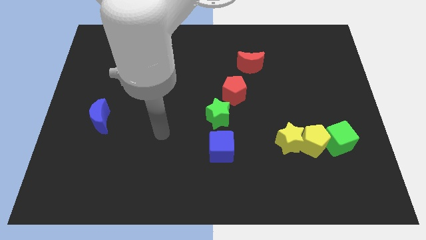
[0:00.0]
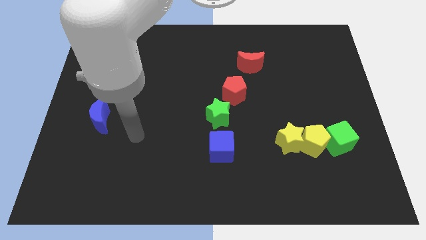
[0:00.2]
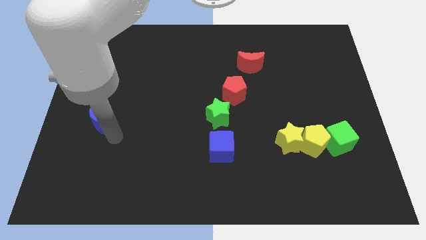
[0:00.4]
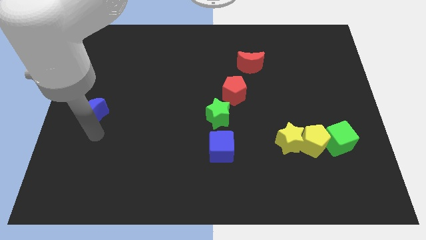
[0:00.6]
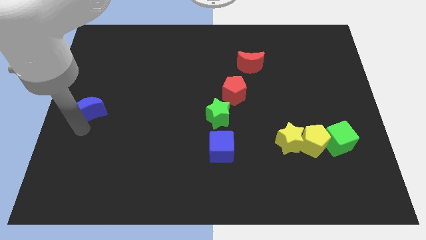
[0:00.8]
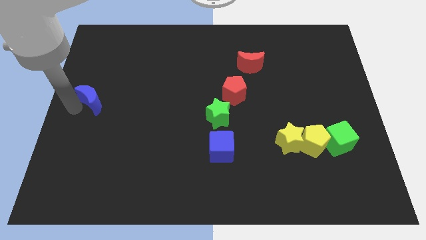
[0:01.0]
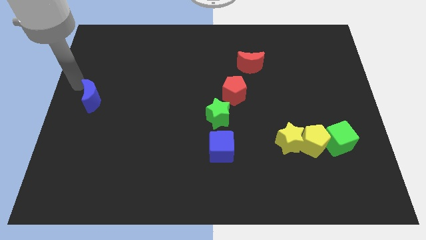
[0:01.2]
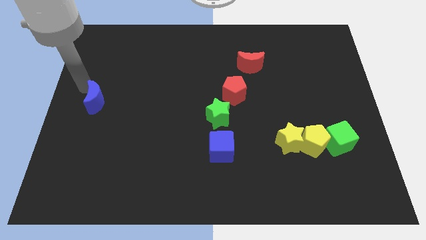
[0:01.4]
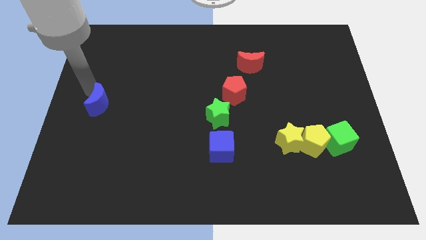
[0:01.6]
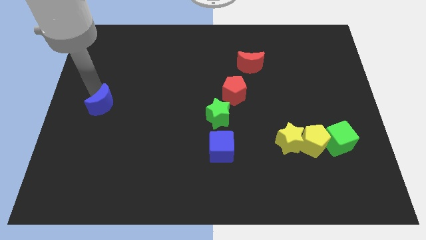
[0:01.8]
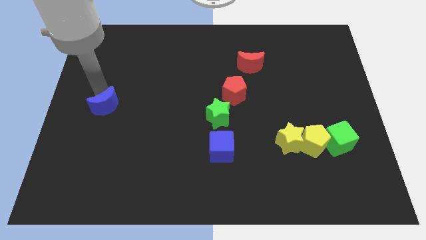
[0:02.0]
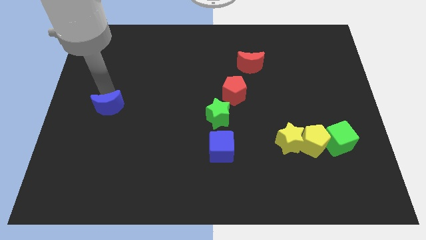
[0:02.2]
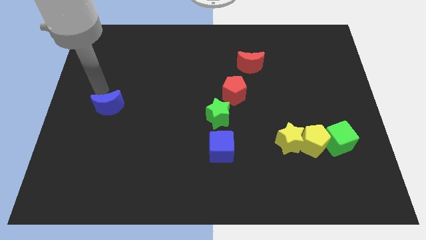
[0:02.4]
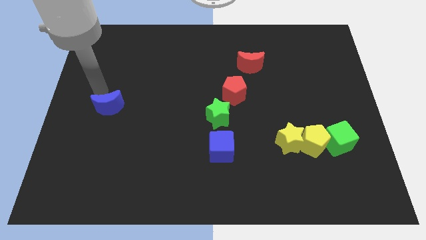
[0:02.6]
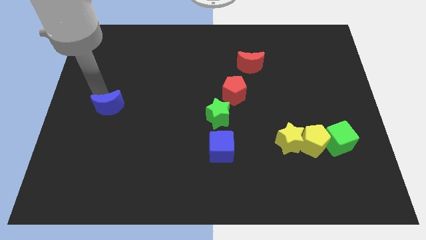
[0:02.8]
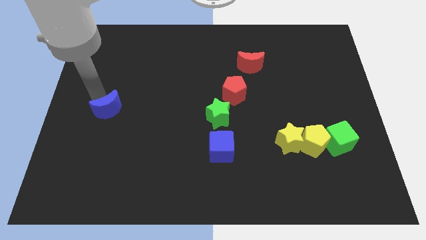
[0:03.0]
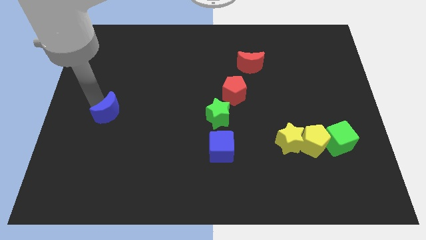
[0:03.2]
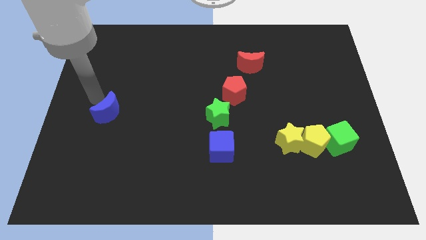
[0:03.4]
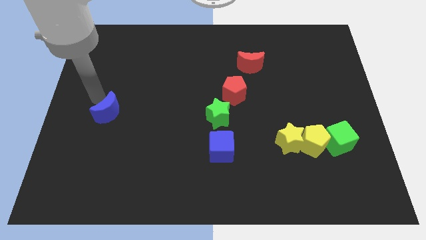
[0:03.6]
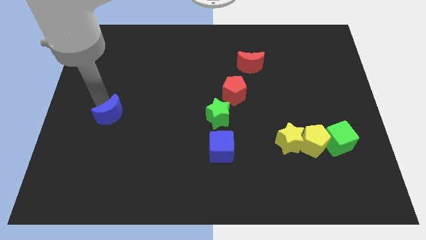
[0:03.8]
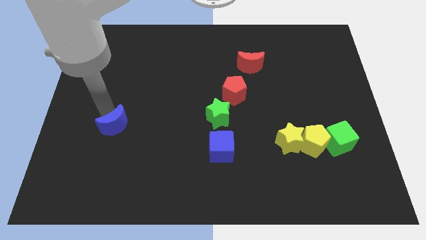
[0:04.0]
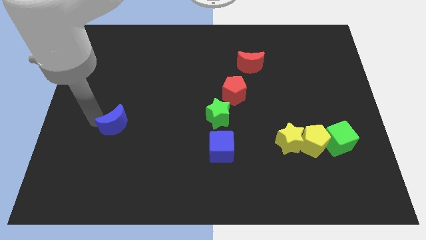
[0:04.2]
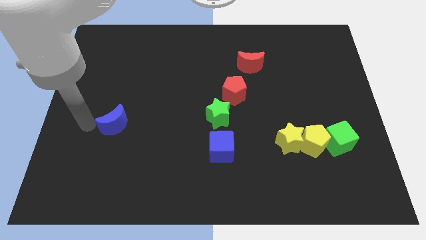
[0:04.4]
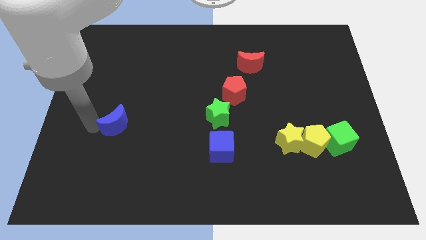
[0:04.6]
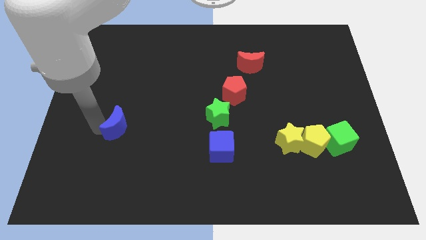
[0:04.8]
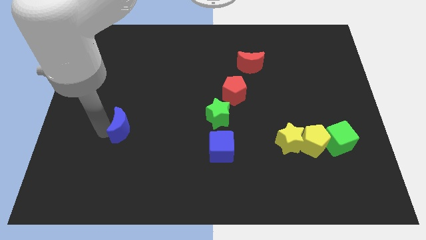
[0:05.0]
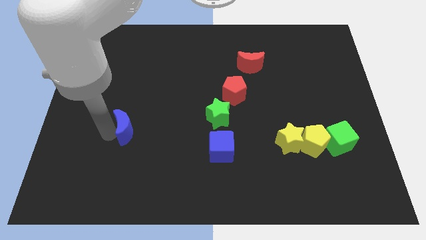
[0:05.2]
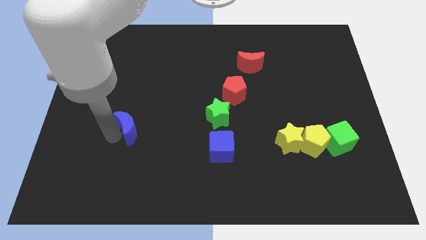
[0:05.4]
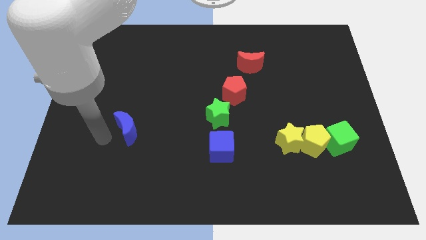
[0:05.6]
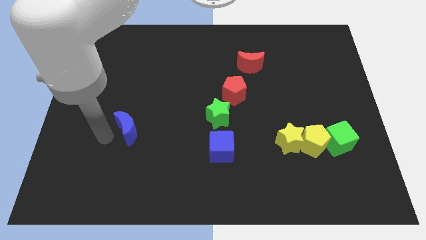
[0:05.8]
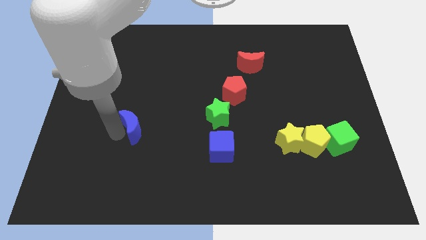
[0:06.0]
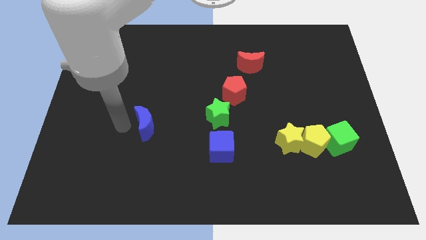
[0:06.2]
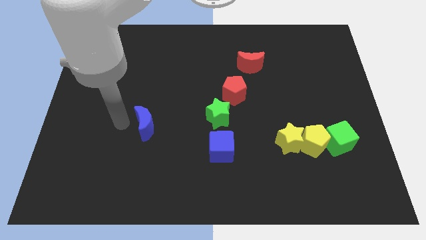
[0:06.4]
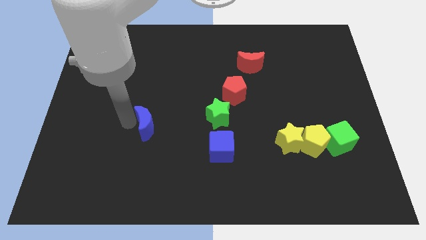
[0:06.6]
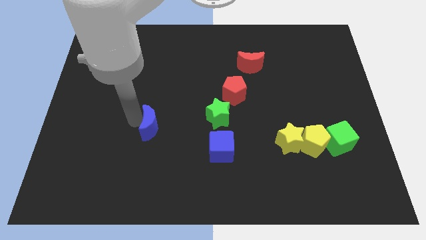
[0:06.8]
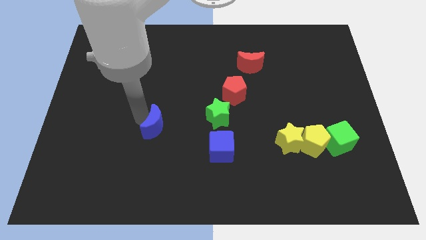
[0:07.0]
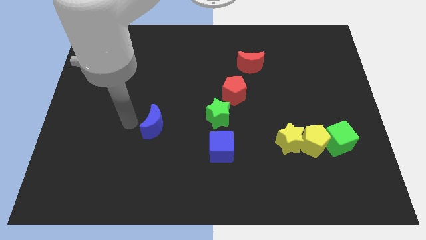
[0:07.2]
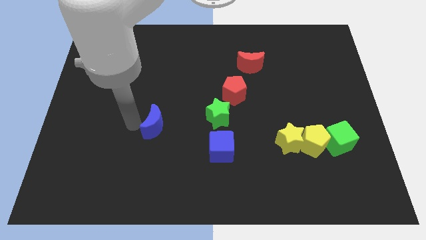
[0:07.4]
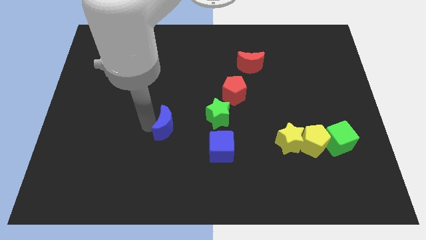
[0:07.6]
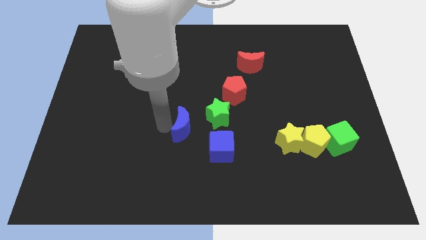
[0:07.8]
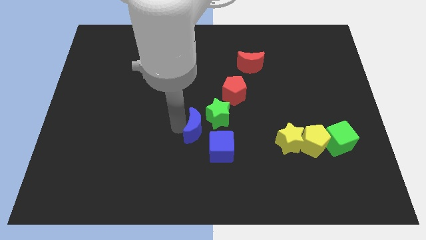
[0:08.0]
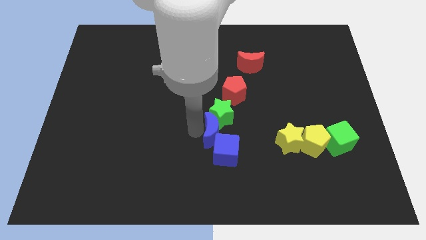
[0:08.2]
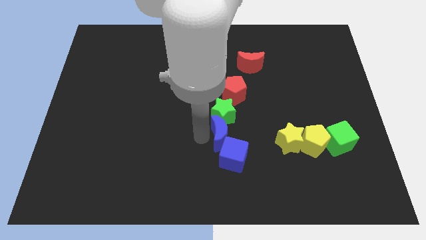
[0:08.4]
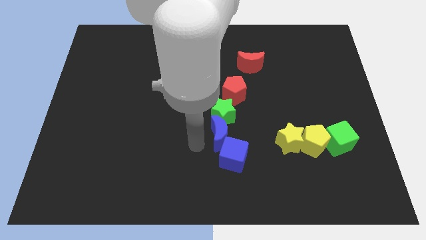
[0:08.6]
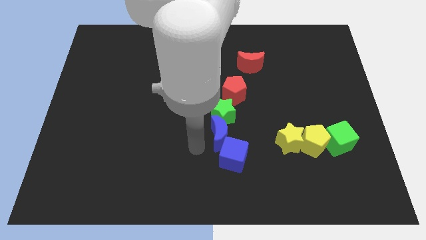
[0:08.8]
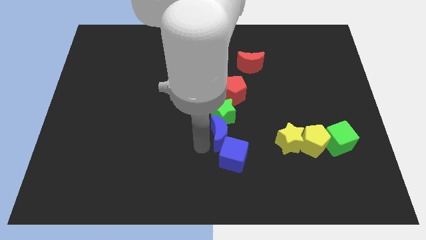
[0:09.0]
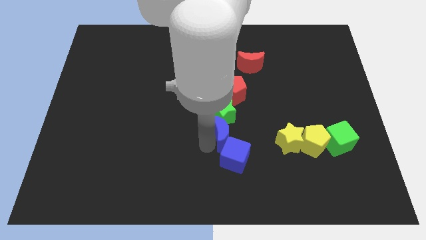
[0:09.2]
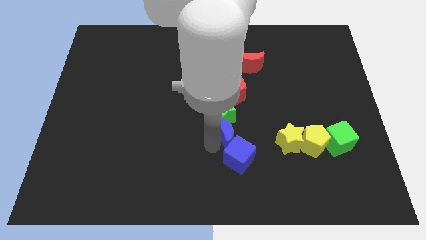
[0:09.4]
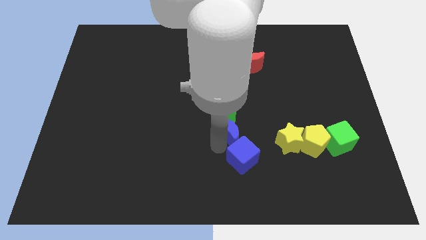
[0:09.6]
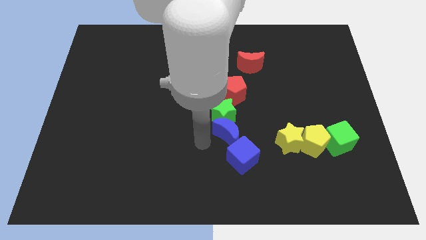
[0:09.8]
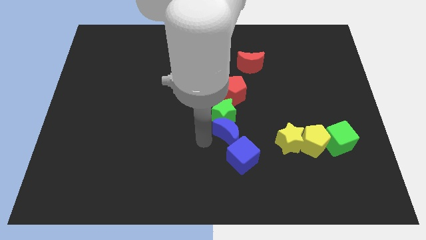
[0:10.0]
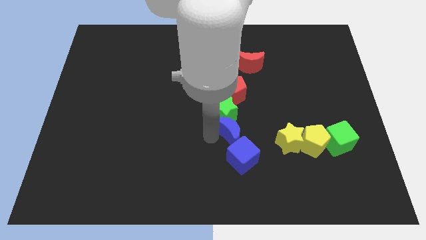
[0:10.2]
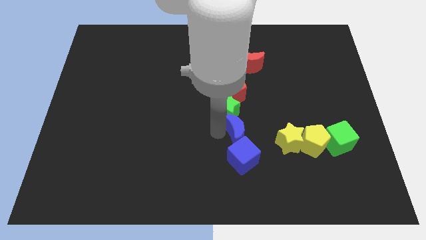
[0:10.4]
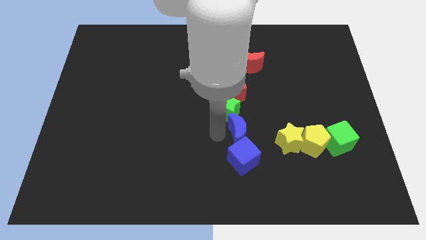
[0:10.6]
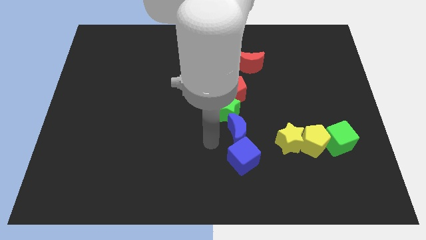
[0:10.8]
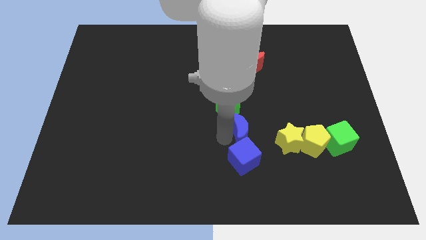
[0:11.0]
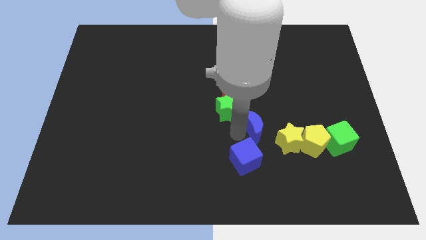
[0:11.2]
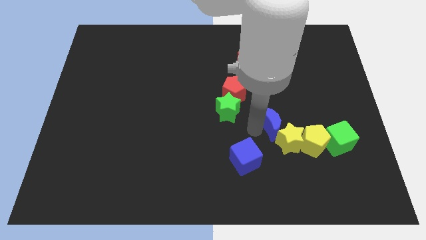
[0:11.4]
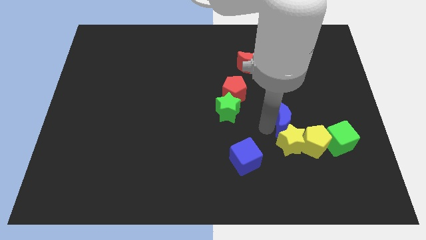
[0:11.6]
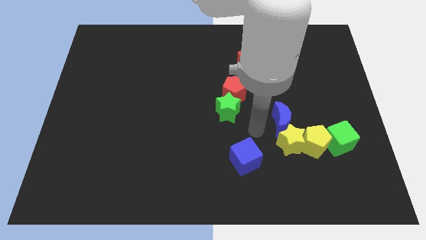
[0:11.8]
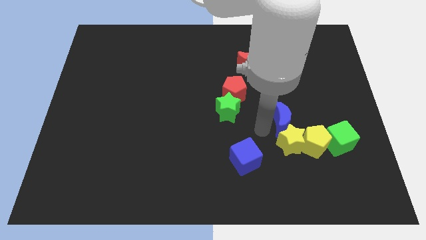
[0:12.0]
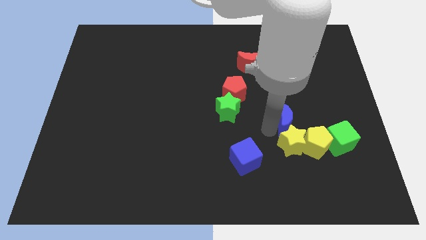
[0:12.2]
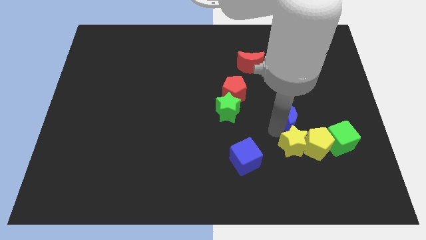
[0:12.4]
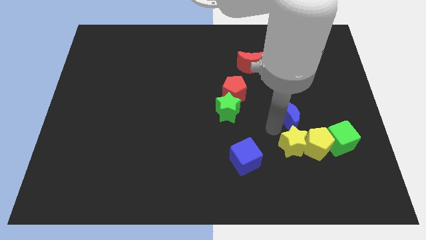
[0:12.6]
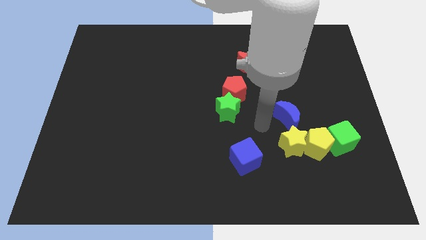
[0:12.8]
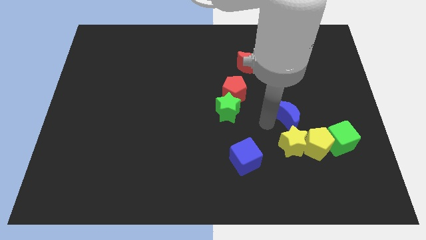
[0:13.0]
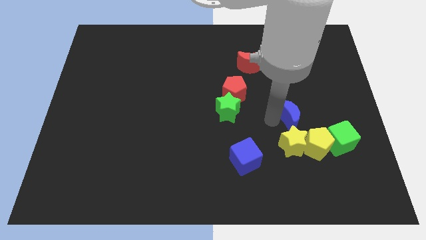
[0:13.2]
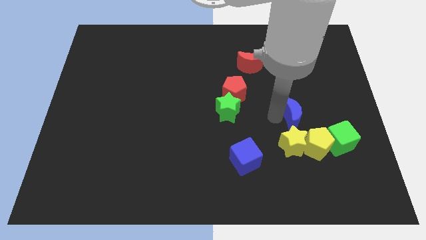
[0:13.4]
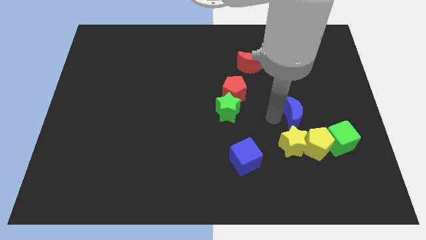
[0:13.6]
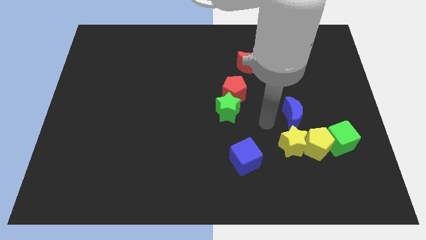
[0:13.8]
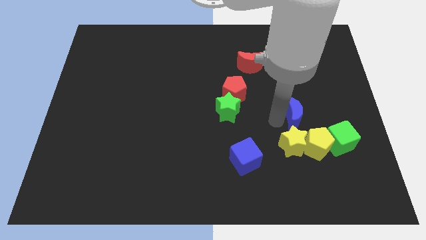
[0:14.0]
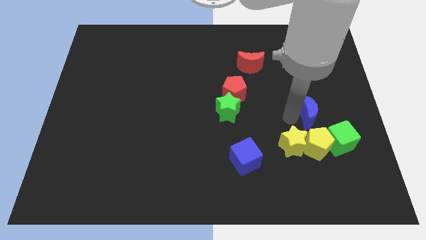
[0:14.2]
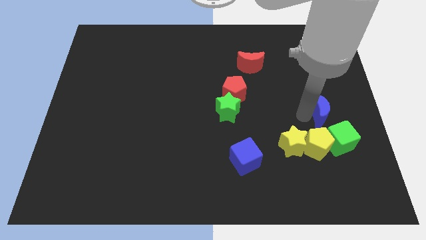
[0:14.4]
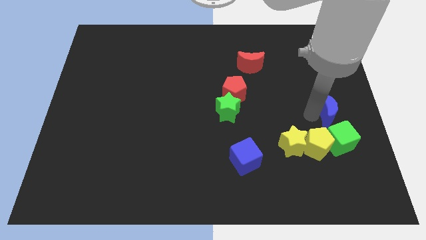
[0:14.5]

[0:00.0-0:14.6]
put the blue moon to the center right
